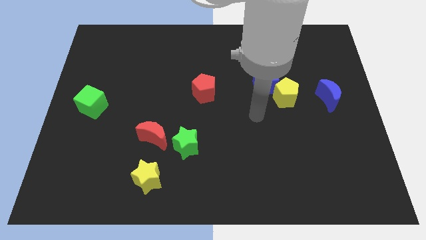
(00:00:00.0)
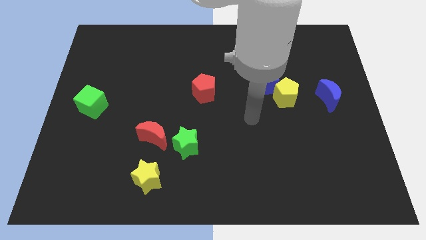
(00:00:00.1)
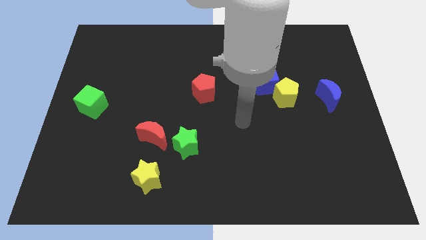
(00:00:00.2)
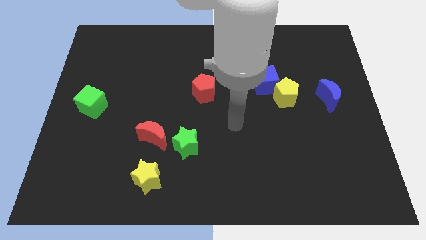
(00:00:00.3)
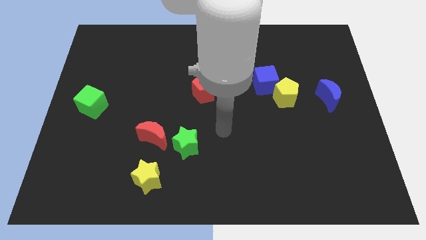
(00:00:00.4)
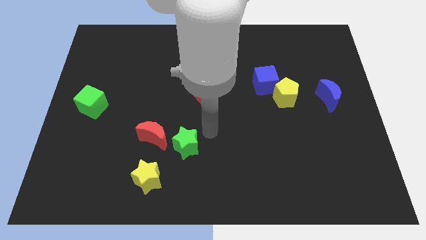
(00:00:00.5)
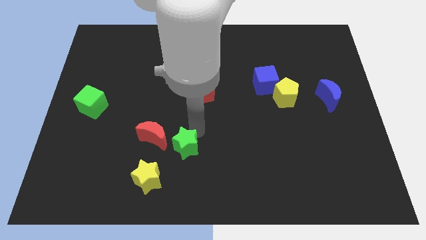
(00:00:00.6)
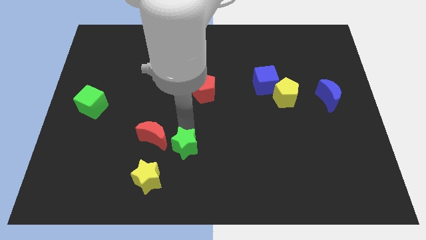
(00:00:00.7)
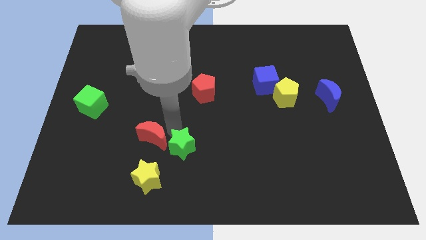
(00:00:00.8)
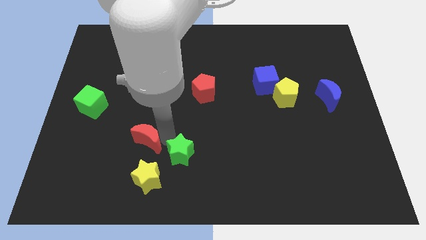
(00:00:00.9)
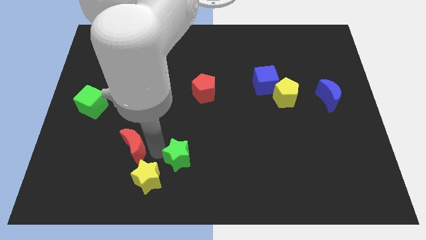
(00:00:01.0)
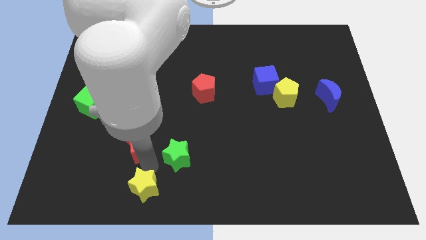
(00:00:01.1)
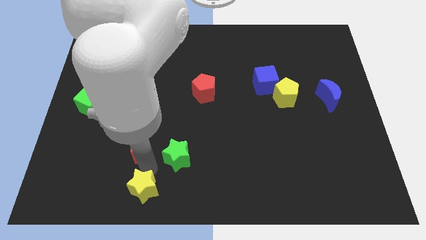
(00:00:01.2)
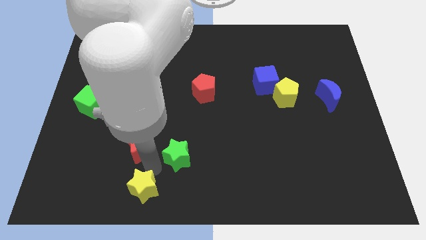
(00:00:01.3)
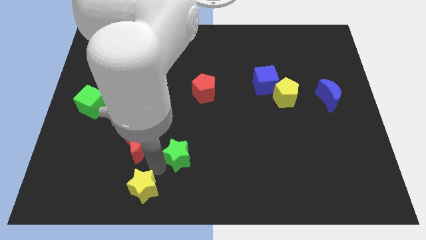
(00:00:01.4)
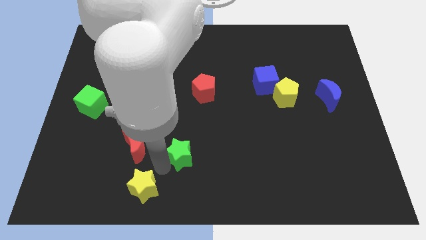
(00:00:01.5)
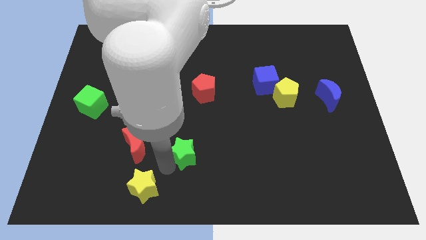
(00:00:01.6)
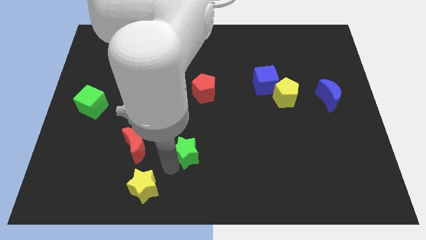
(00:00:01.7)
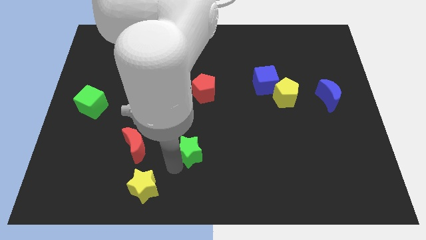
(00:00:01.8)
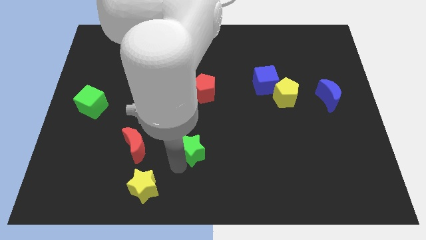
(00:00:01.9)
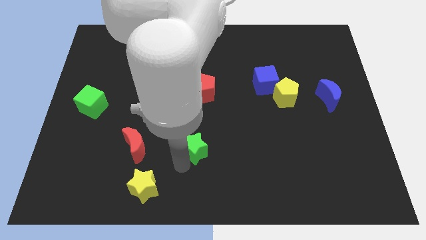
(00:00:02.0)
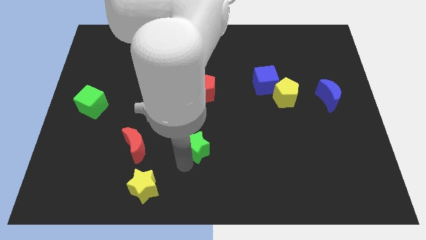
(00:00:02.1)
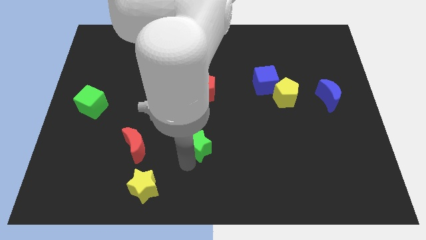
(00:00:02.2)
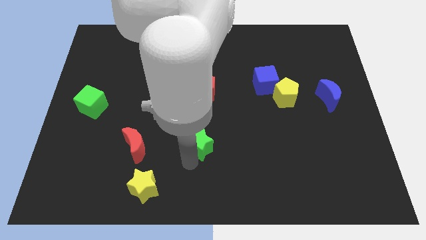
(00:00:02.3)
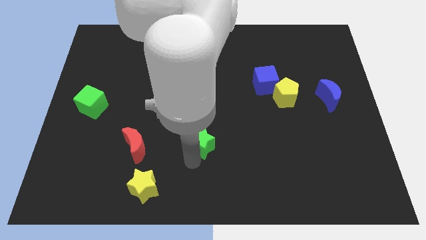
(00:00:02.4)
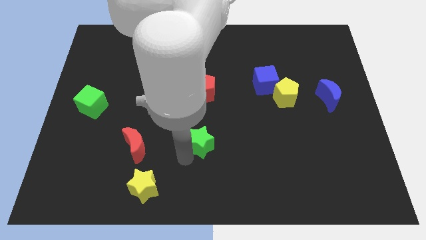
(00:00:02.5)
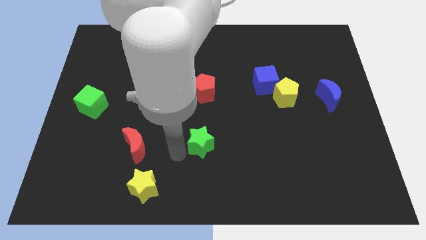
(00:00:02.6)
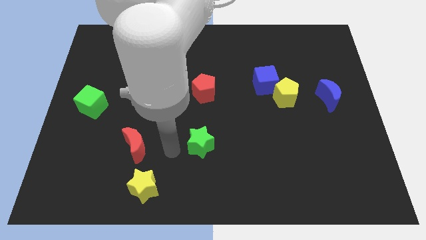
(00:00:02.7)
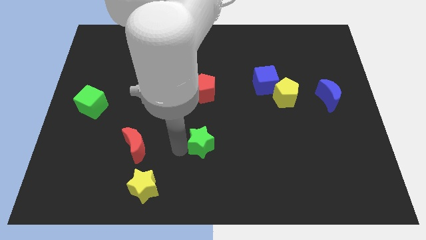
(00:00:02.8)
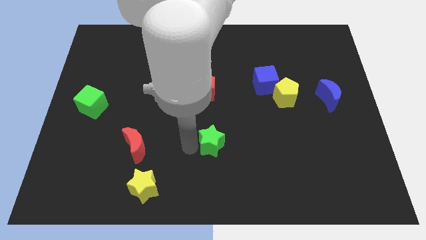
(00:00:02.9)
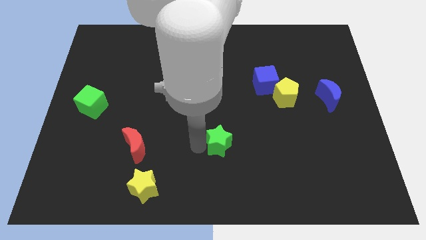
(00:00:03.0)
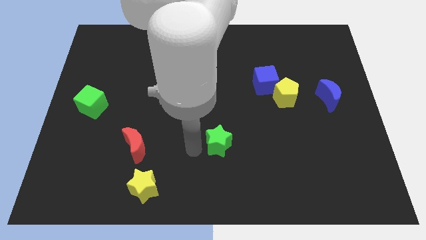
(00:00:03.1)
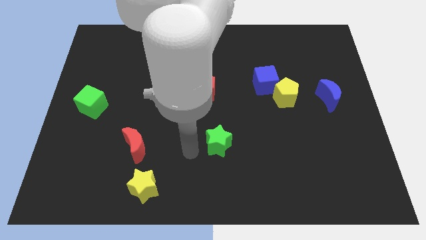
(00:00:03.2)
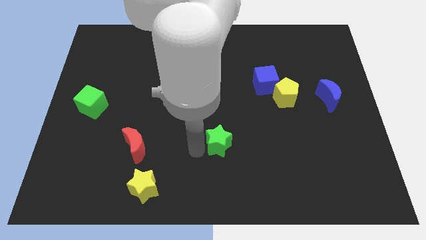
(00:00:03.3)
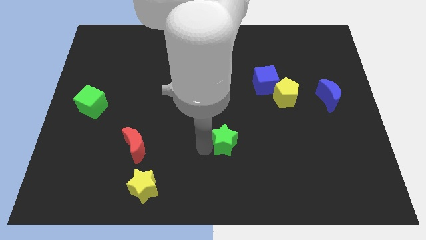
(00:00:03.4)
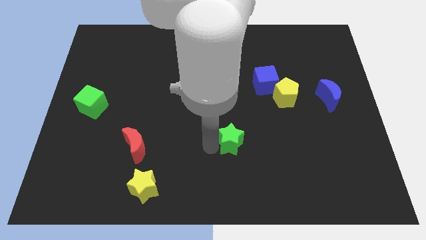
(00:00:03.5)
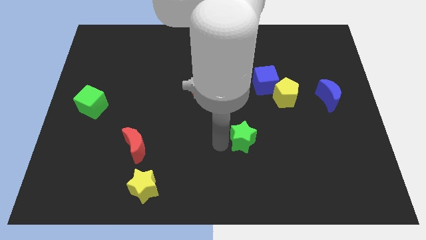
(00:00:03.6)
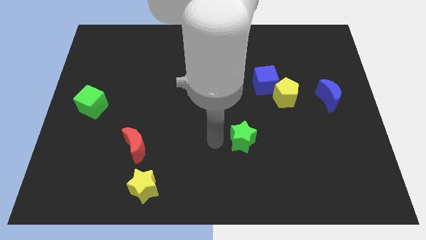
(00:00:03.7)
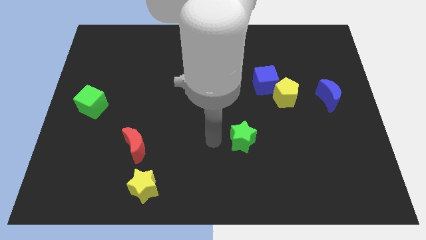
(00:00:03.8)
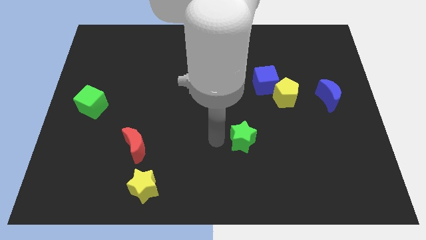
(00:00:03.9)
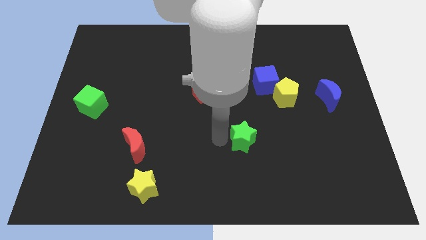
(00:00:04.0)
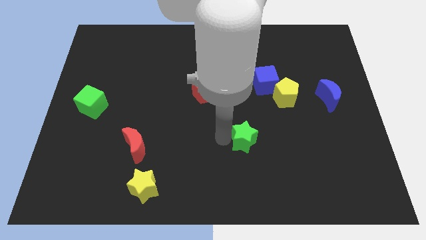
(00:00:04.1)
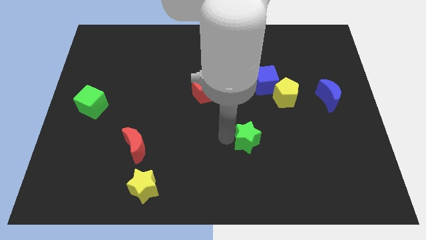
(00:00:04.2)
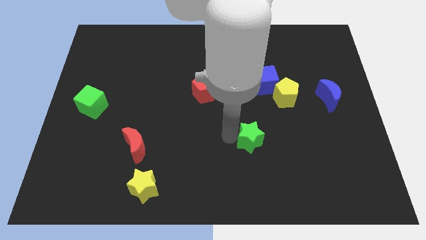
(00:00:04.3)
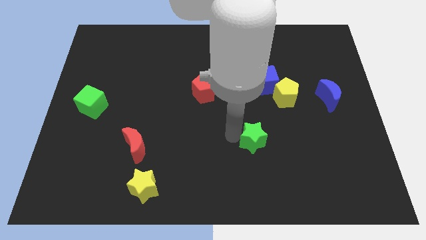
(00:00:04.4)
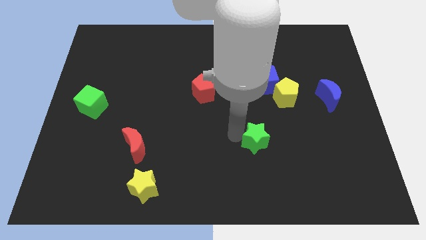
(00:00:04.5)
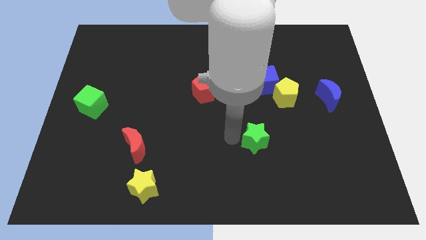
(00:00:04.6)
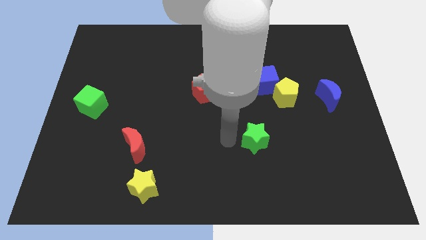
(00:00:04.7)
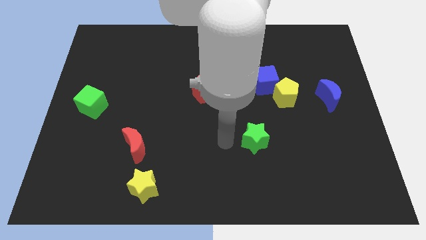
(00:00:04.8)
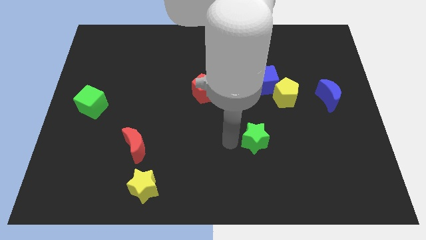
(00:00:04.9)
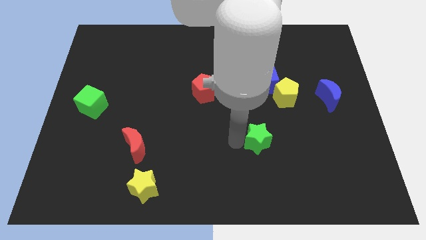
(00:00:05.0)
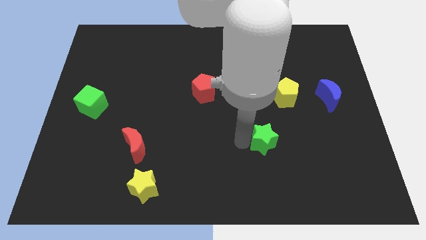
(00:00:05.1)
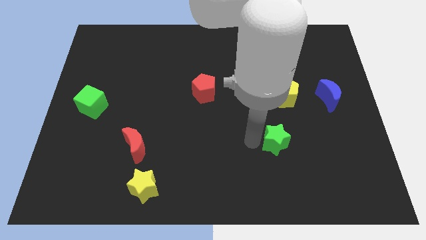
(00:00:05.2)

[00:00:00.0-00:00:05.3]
slide the green star right

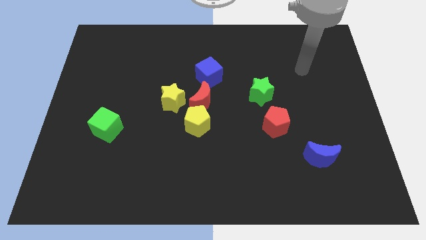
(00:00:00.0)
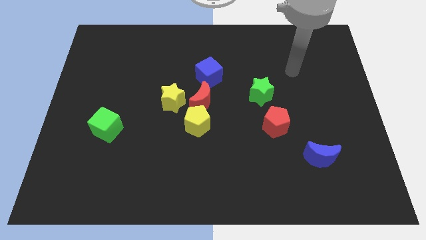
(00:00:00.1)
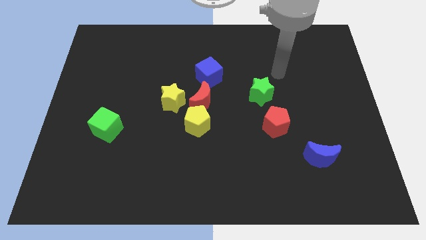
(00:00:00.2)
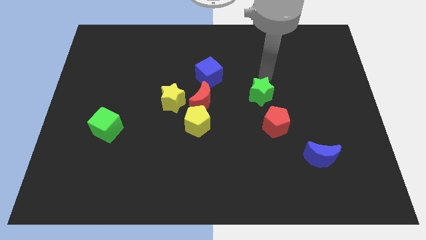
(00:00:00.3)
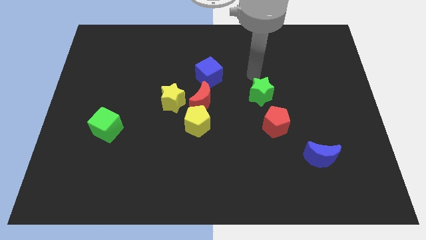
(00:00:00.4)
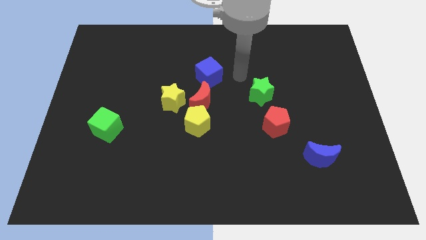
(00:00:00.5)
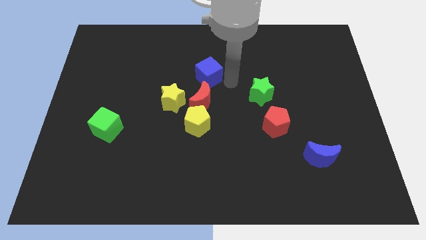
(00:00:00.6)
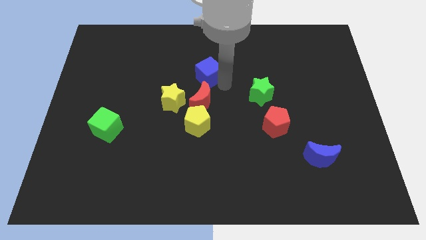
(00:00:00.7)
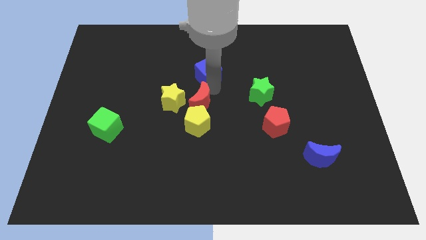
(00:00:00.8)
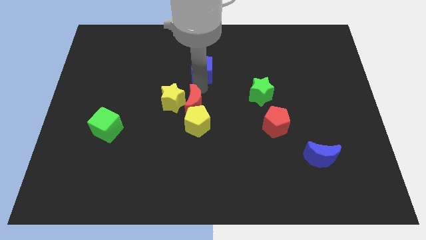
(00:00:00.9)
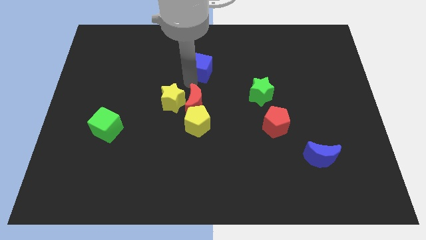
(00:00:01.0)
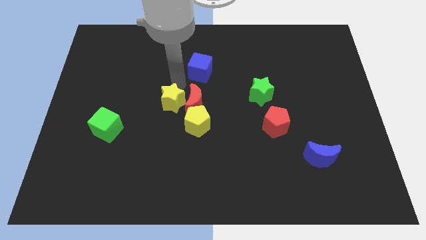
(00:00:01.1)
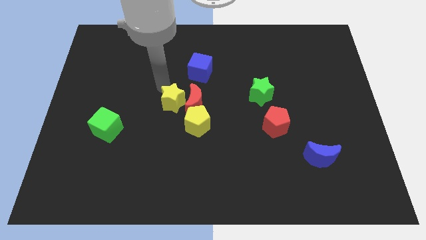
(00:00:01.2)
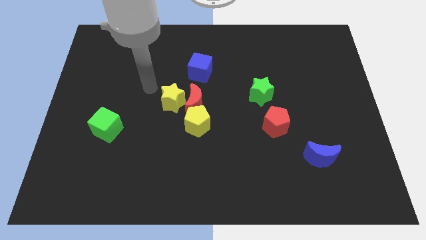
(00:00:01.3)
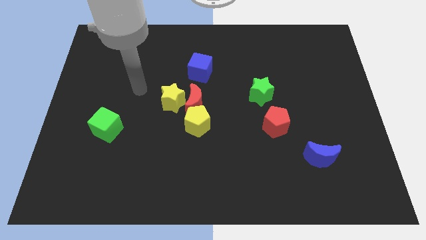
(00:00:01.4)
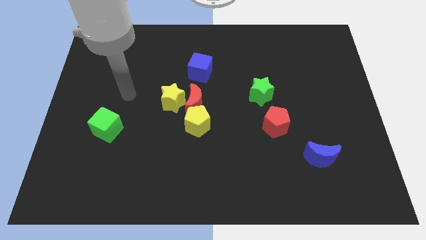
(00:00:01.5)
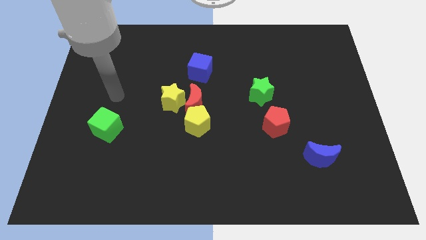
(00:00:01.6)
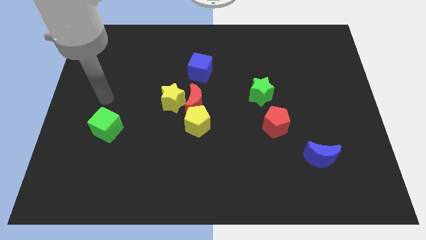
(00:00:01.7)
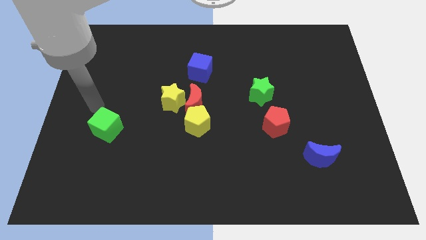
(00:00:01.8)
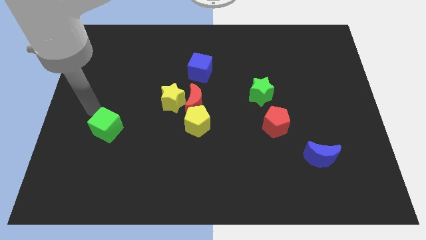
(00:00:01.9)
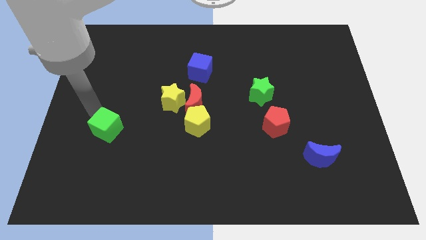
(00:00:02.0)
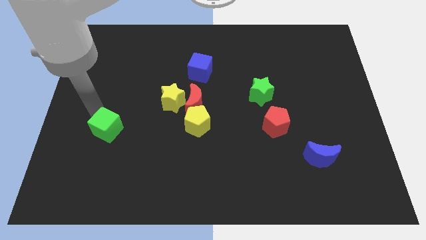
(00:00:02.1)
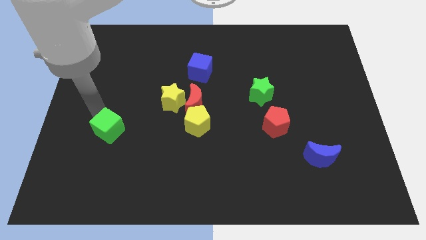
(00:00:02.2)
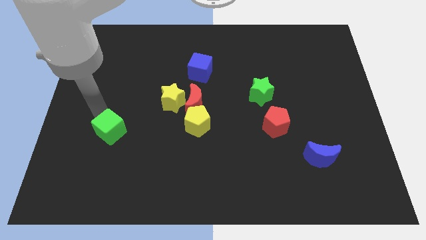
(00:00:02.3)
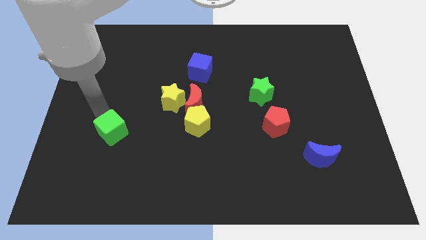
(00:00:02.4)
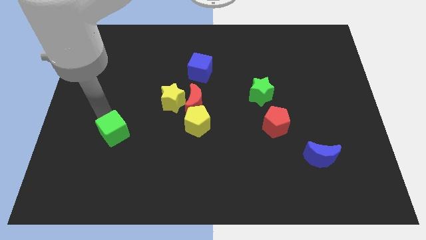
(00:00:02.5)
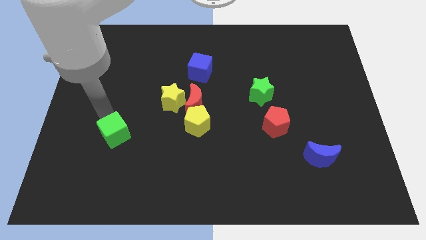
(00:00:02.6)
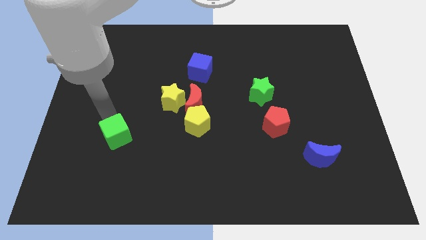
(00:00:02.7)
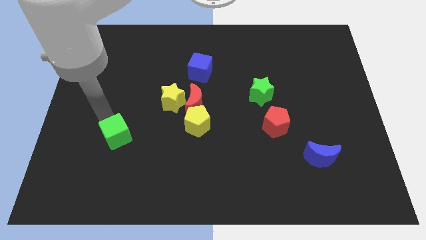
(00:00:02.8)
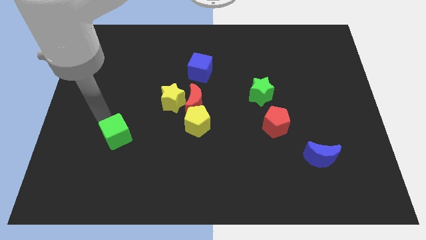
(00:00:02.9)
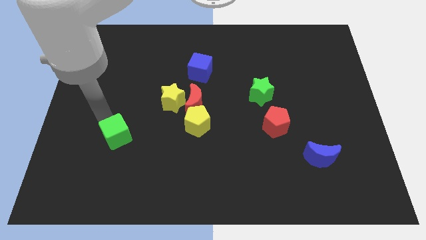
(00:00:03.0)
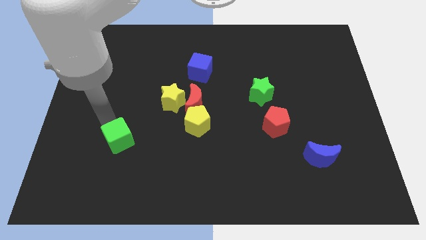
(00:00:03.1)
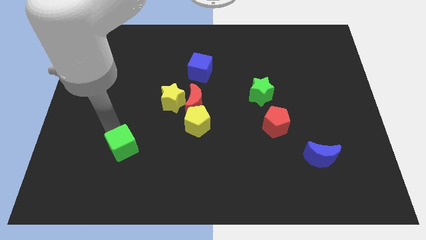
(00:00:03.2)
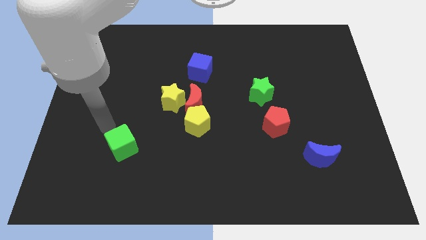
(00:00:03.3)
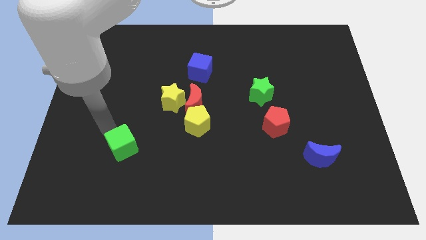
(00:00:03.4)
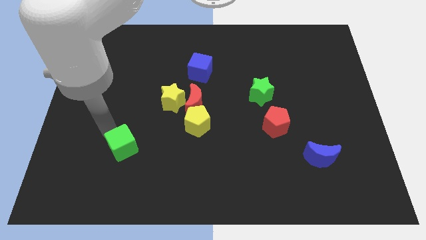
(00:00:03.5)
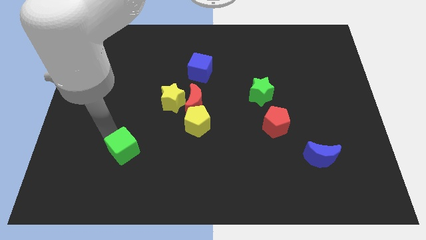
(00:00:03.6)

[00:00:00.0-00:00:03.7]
push the green cube down and then to the right slightly
